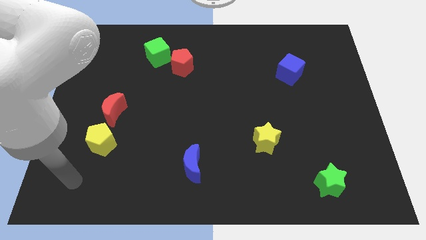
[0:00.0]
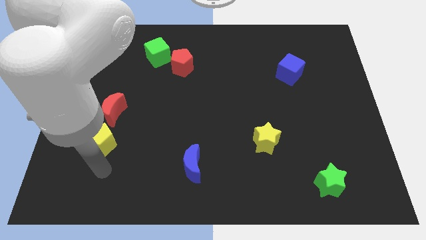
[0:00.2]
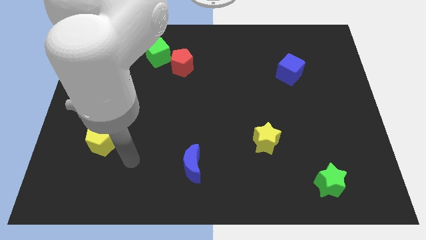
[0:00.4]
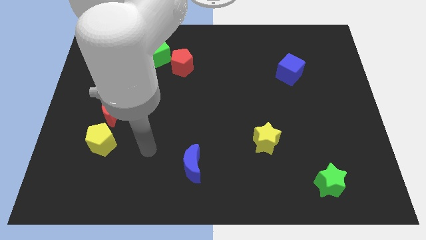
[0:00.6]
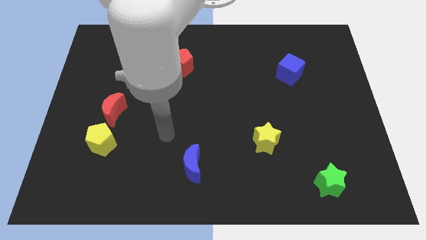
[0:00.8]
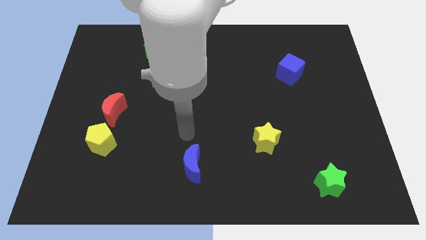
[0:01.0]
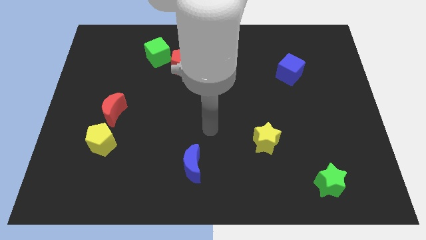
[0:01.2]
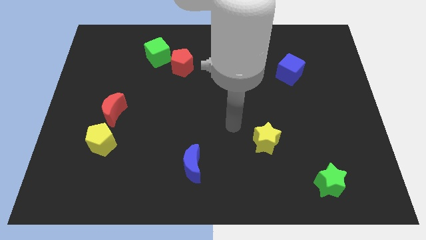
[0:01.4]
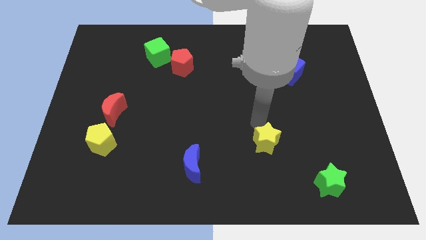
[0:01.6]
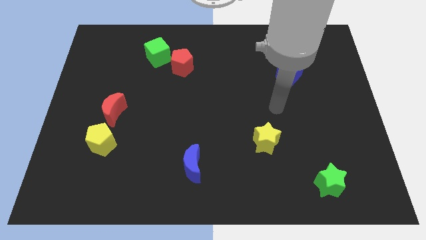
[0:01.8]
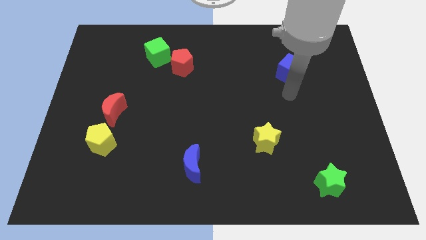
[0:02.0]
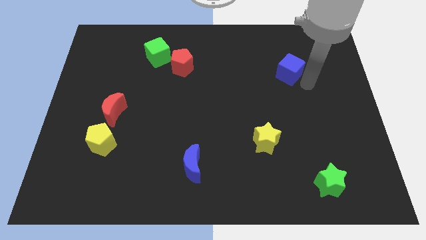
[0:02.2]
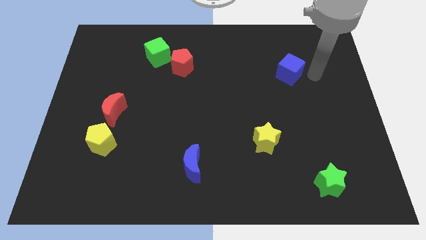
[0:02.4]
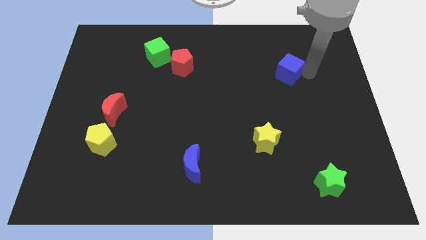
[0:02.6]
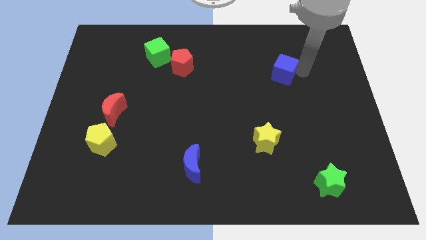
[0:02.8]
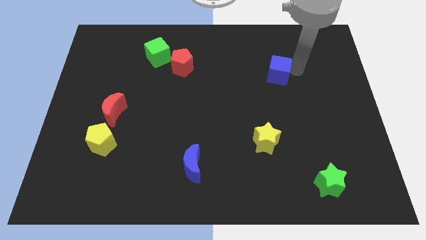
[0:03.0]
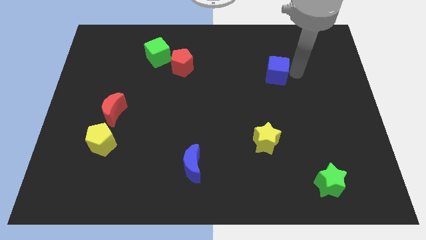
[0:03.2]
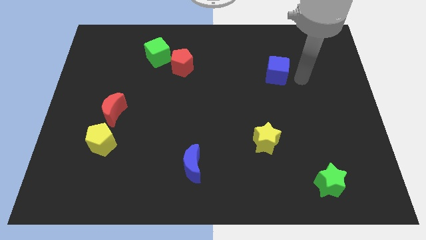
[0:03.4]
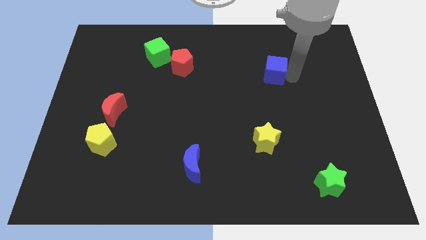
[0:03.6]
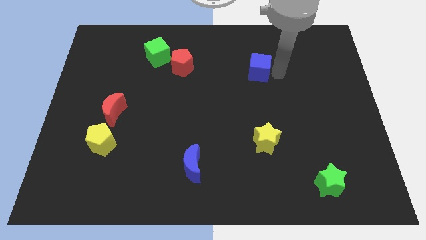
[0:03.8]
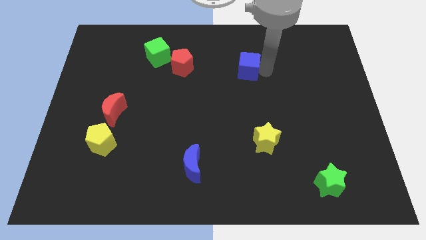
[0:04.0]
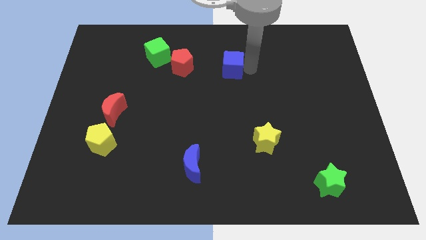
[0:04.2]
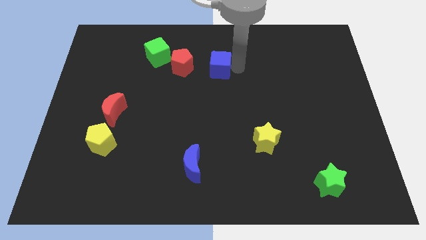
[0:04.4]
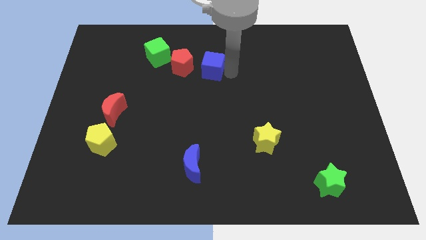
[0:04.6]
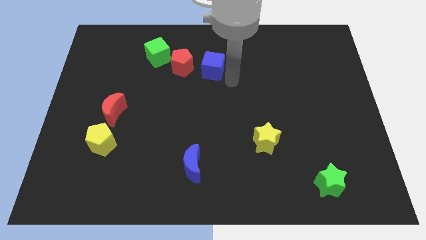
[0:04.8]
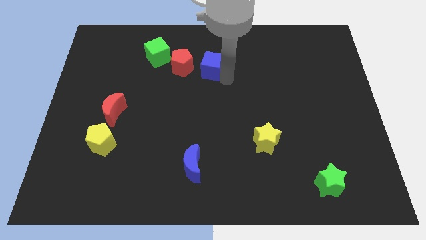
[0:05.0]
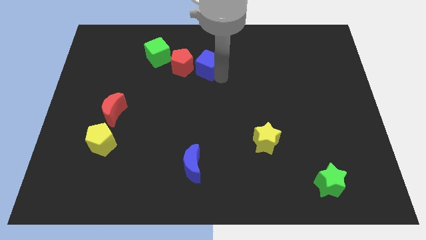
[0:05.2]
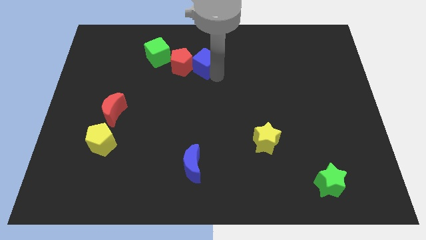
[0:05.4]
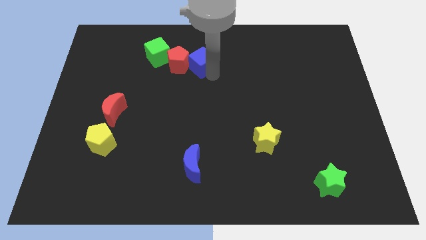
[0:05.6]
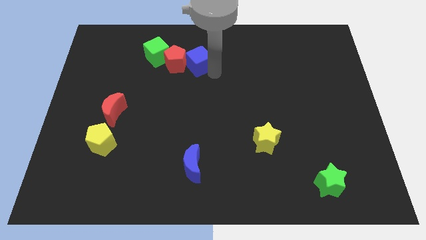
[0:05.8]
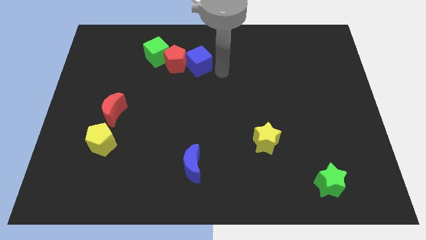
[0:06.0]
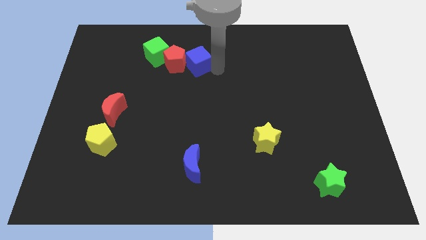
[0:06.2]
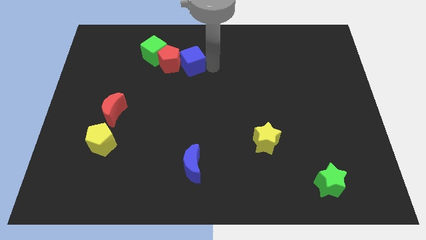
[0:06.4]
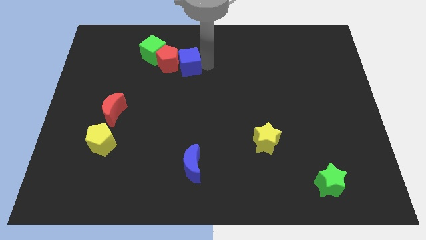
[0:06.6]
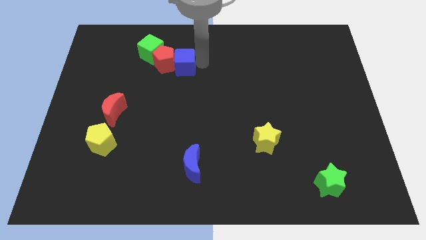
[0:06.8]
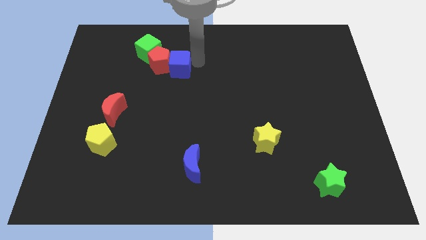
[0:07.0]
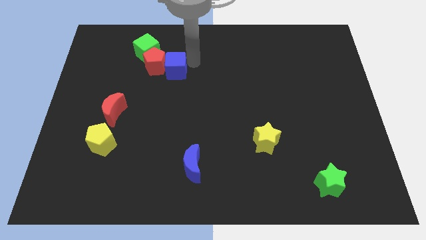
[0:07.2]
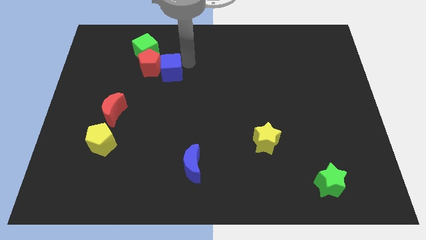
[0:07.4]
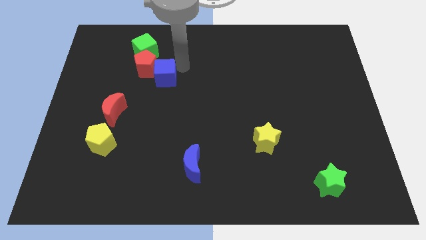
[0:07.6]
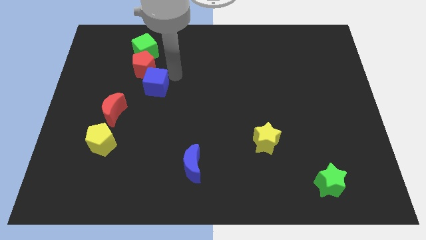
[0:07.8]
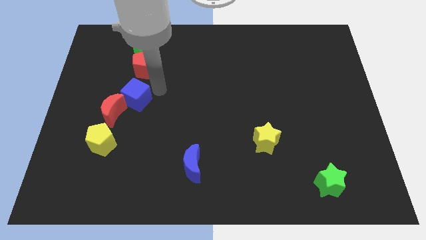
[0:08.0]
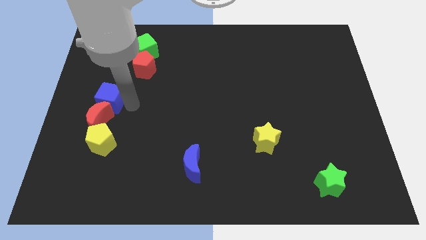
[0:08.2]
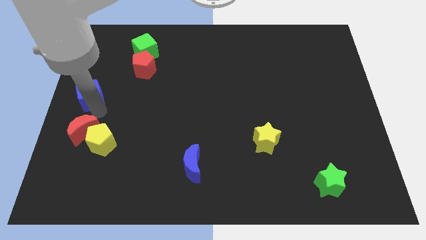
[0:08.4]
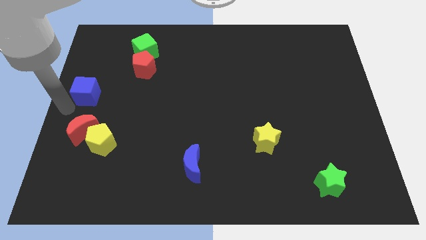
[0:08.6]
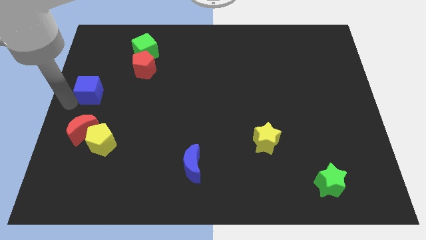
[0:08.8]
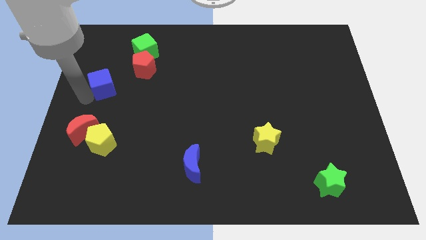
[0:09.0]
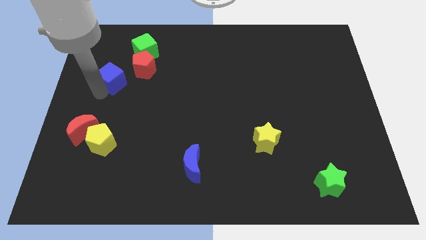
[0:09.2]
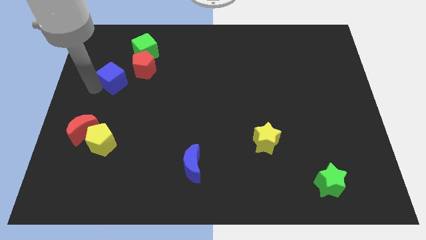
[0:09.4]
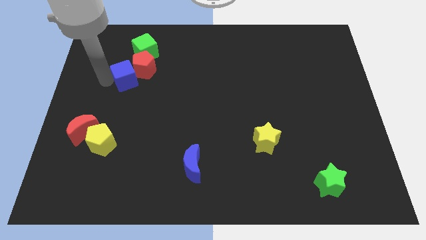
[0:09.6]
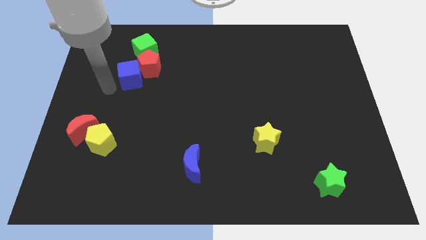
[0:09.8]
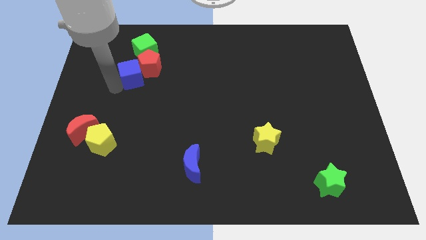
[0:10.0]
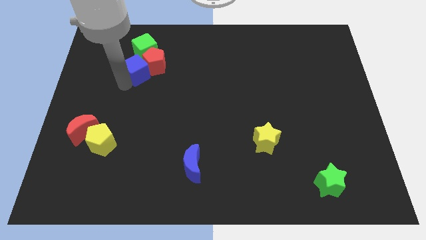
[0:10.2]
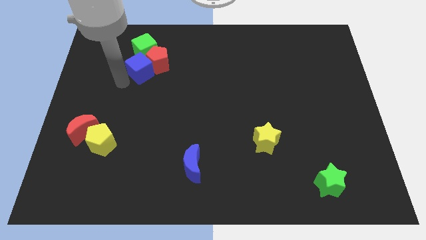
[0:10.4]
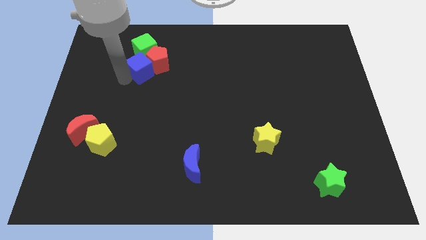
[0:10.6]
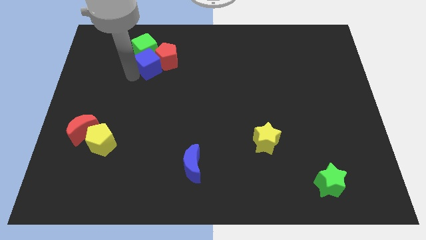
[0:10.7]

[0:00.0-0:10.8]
slide the blue cube towards the green cube

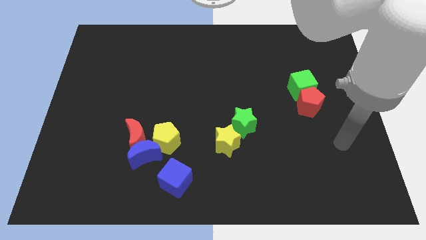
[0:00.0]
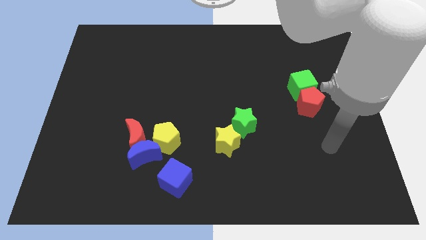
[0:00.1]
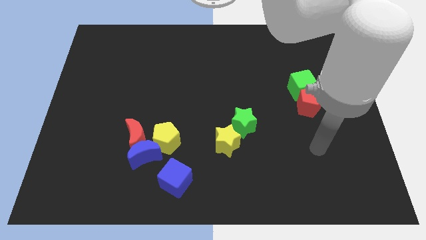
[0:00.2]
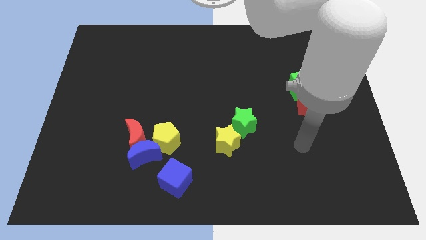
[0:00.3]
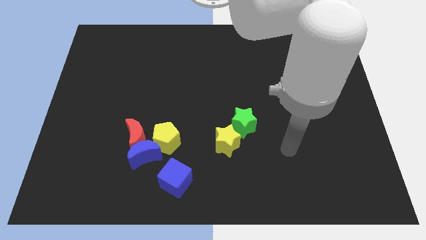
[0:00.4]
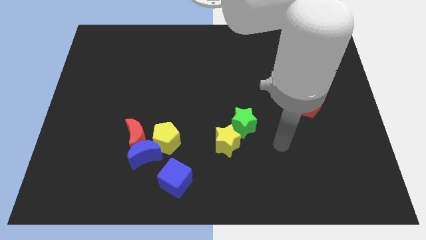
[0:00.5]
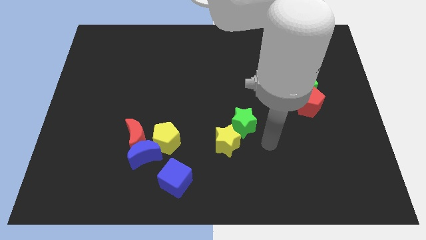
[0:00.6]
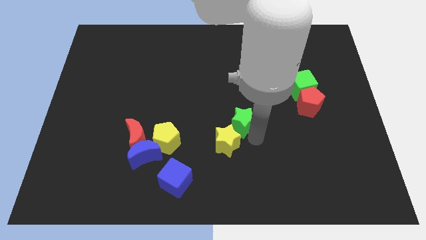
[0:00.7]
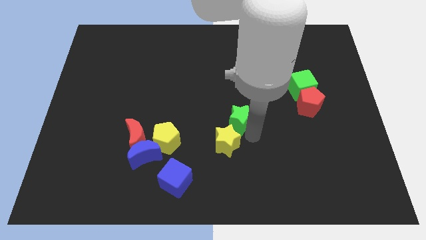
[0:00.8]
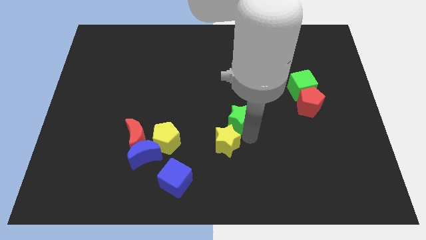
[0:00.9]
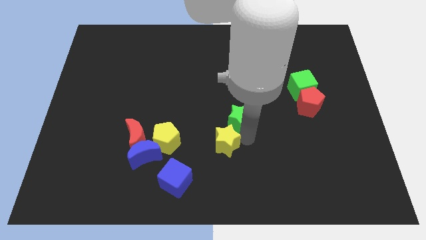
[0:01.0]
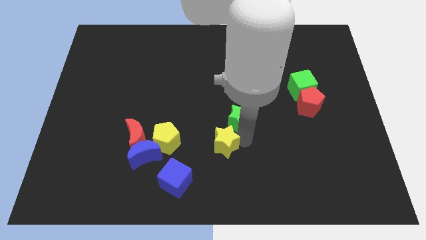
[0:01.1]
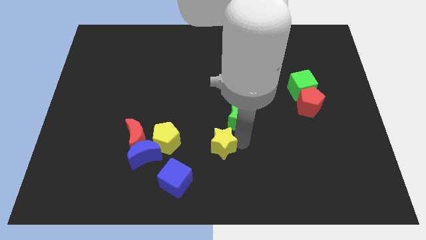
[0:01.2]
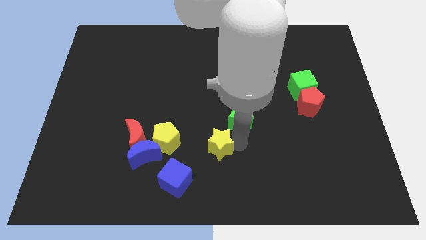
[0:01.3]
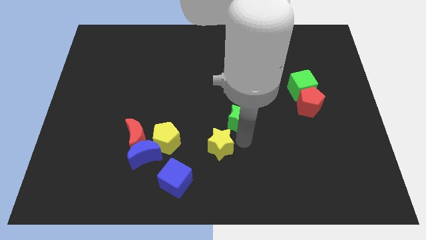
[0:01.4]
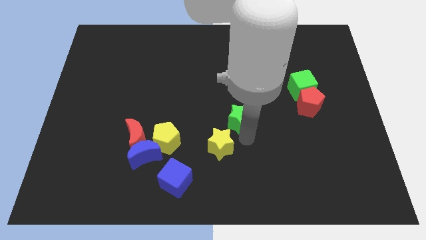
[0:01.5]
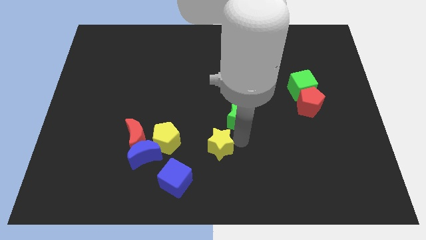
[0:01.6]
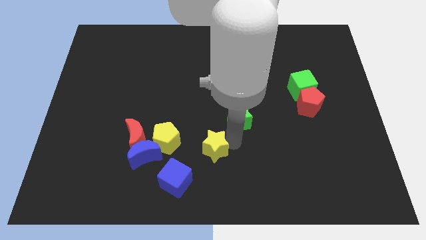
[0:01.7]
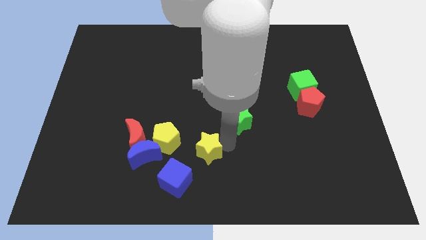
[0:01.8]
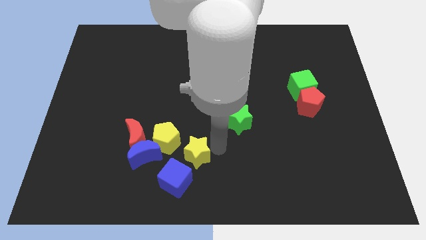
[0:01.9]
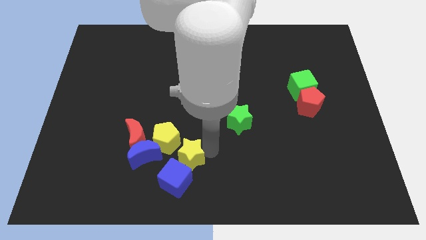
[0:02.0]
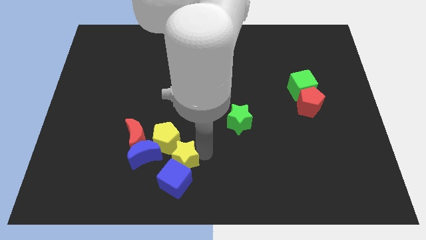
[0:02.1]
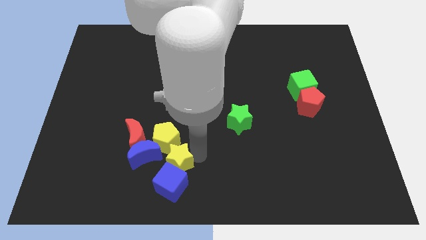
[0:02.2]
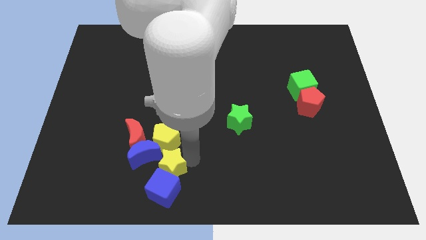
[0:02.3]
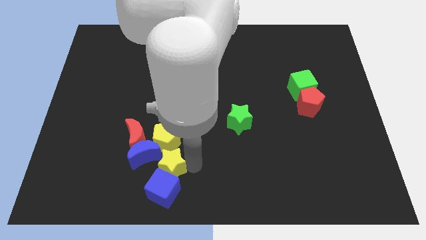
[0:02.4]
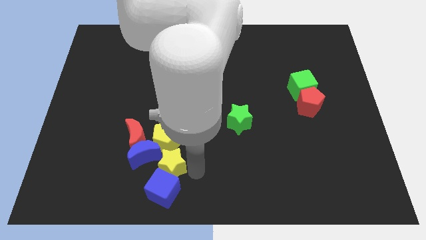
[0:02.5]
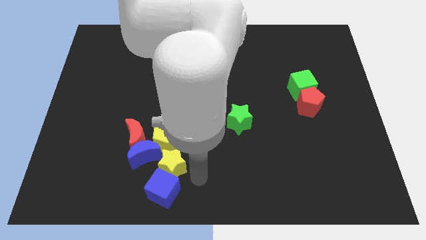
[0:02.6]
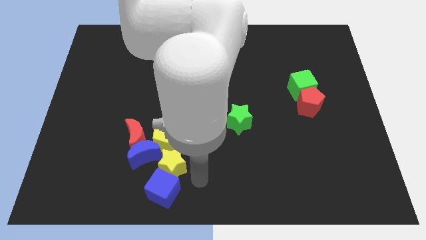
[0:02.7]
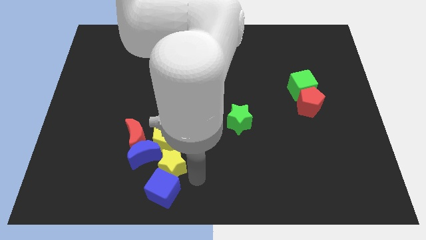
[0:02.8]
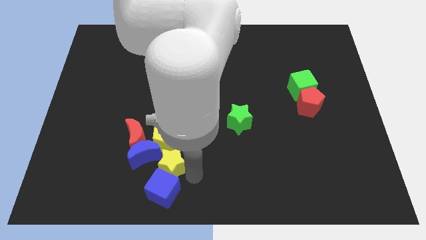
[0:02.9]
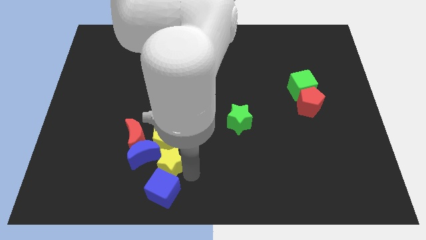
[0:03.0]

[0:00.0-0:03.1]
slide the yellow star next to the blue moon
